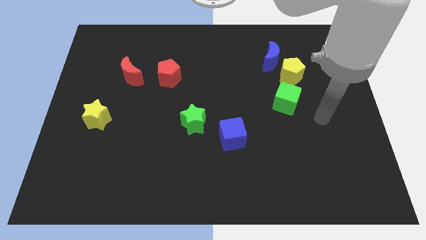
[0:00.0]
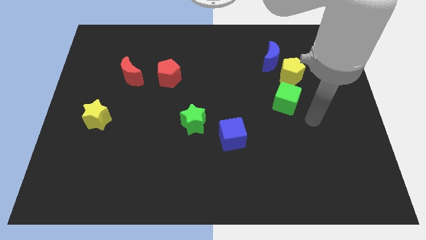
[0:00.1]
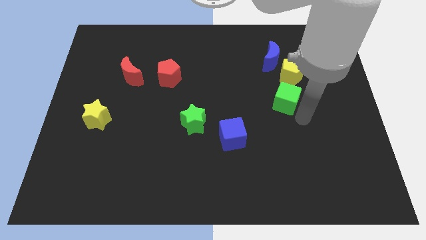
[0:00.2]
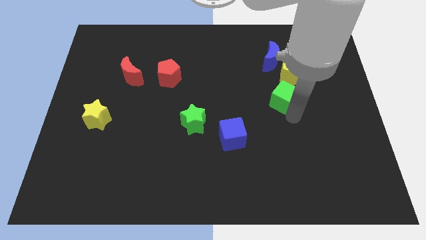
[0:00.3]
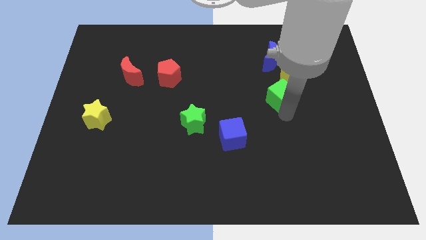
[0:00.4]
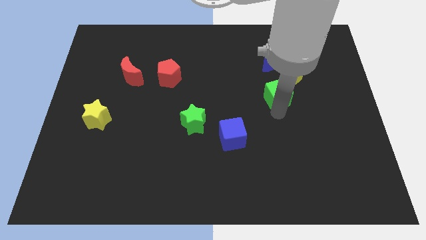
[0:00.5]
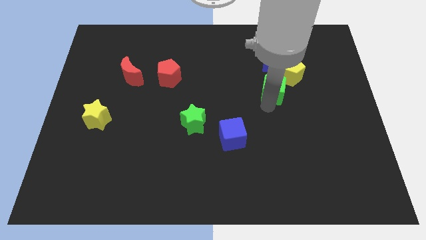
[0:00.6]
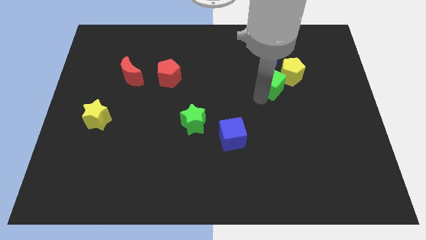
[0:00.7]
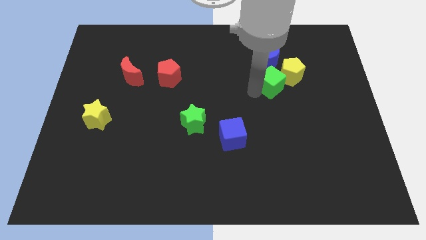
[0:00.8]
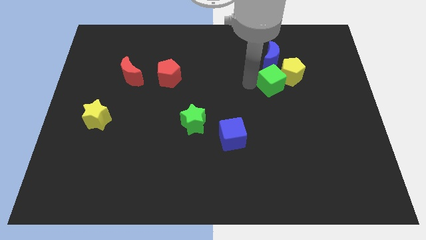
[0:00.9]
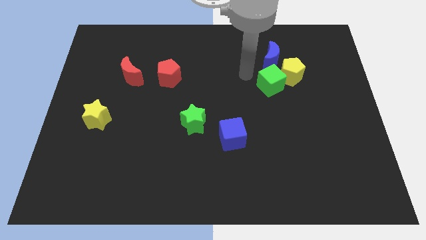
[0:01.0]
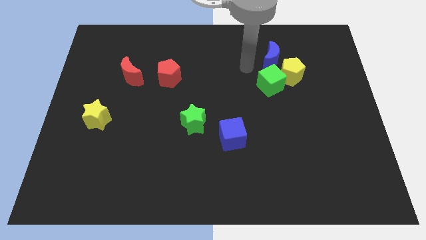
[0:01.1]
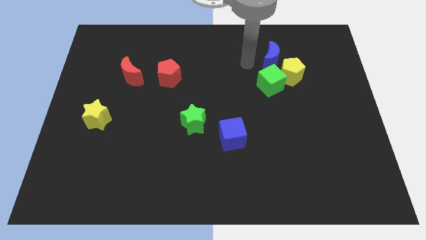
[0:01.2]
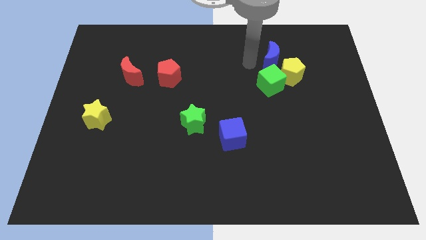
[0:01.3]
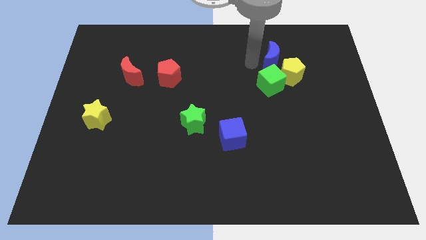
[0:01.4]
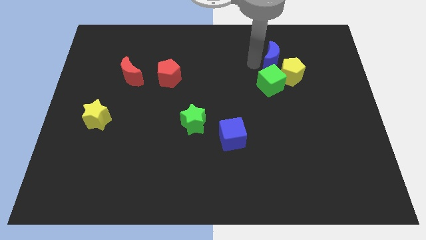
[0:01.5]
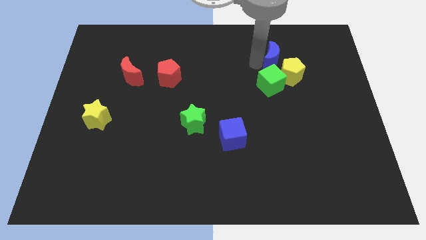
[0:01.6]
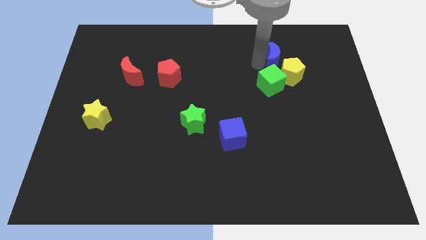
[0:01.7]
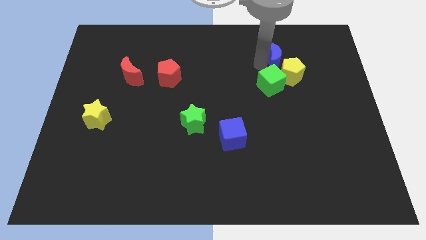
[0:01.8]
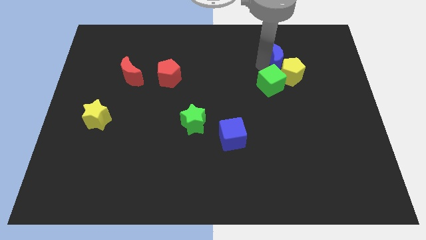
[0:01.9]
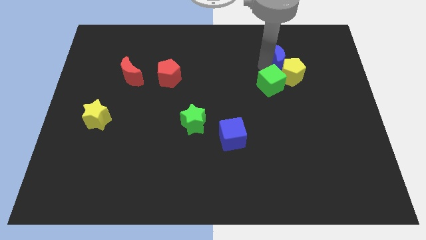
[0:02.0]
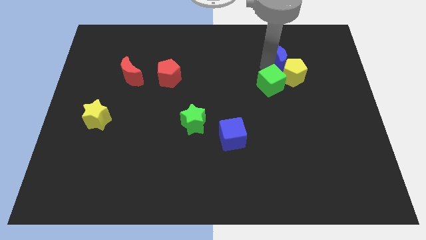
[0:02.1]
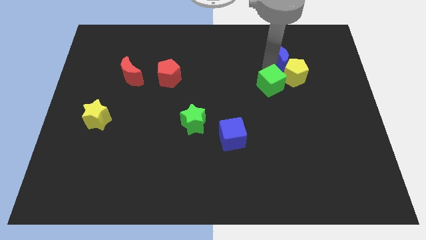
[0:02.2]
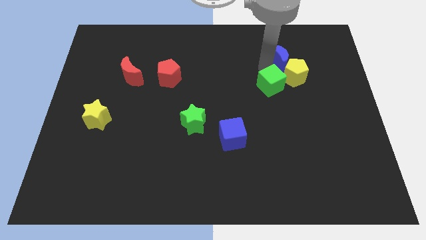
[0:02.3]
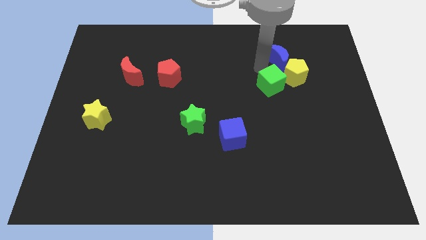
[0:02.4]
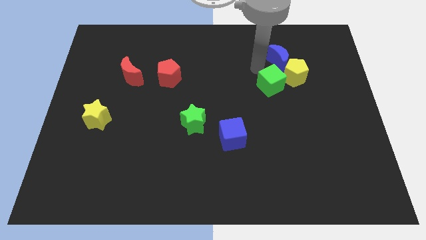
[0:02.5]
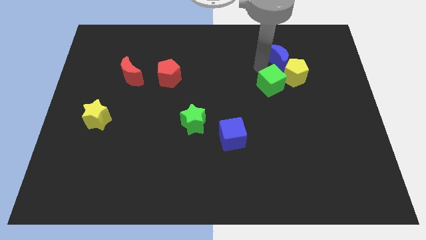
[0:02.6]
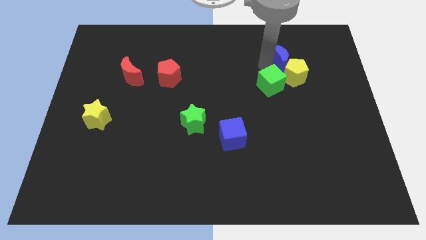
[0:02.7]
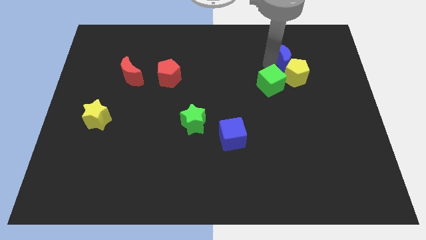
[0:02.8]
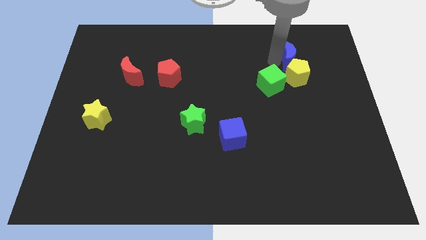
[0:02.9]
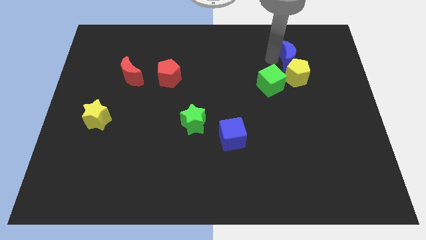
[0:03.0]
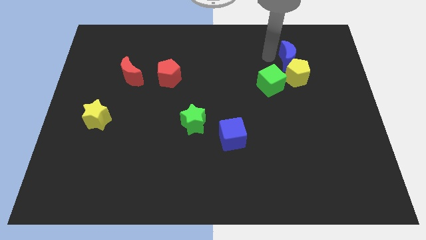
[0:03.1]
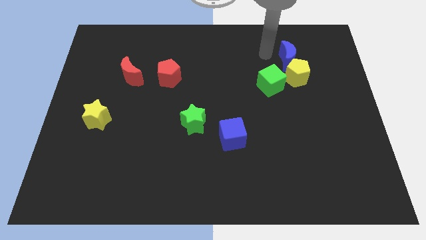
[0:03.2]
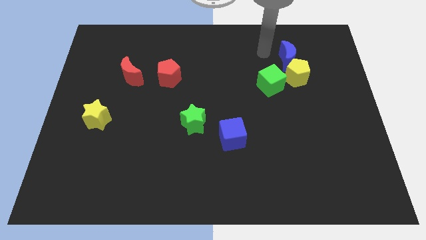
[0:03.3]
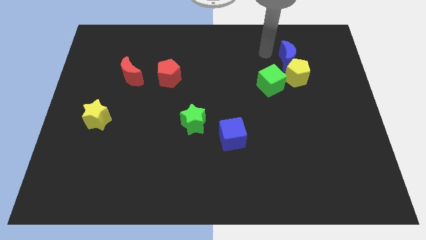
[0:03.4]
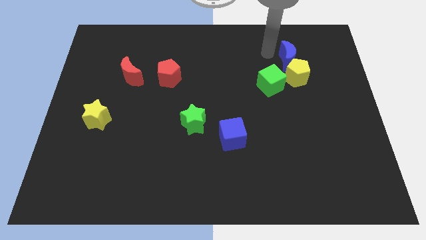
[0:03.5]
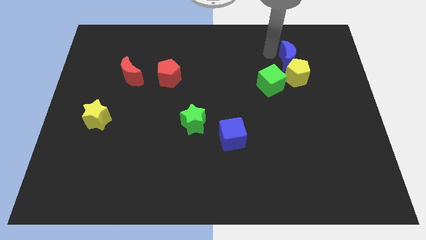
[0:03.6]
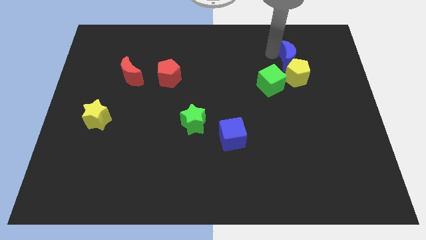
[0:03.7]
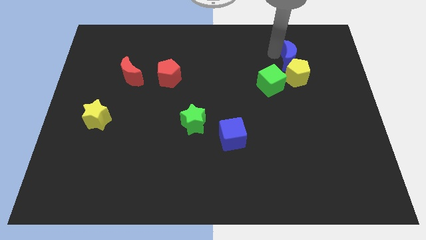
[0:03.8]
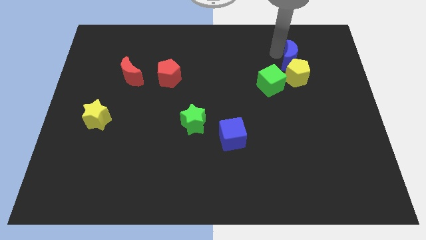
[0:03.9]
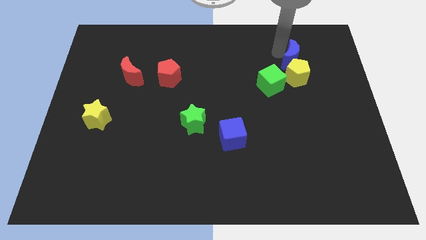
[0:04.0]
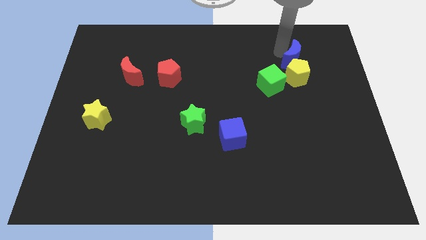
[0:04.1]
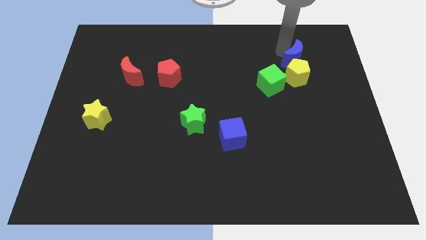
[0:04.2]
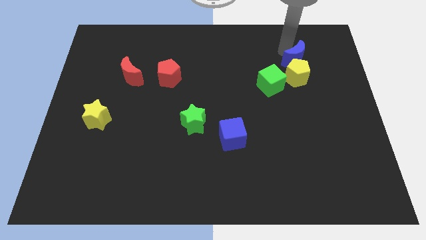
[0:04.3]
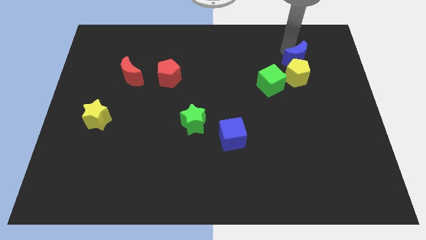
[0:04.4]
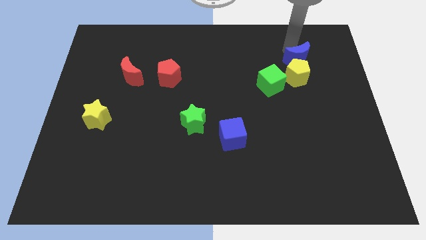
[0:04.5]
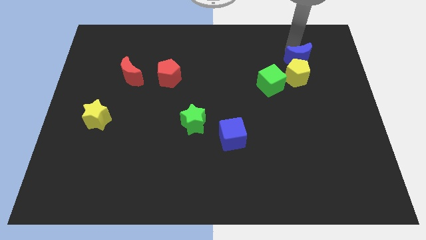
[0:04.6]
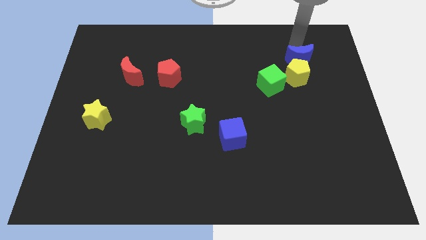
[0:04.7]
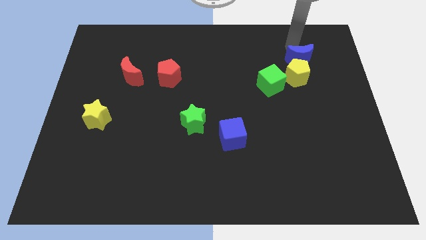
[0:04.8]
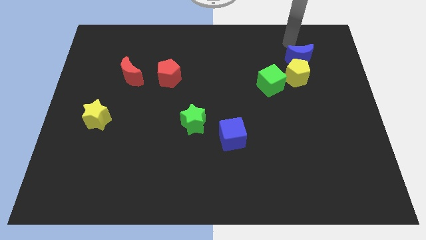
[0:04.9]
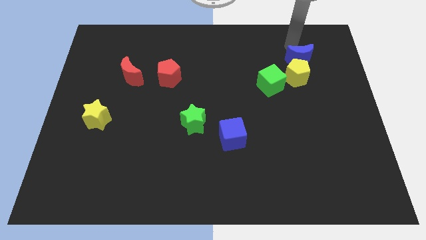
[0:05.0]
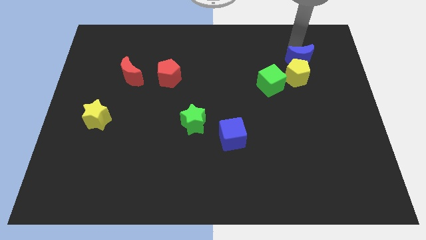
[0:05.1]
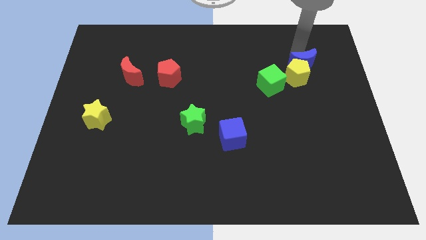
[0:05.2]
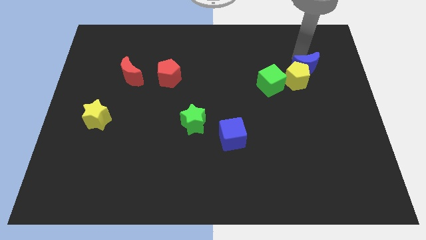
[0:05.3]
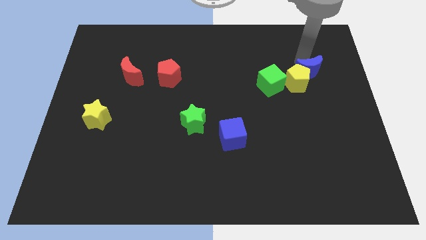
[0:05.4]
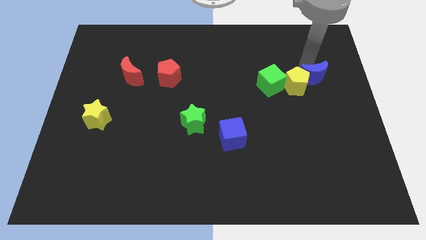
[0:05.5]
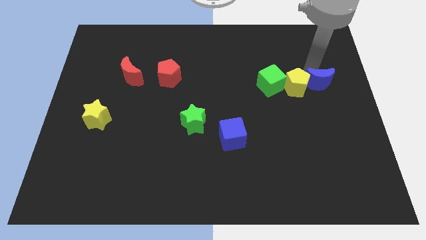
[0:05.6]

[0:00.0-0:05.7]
push the blue moon diagonally down and to the right of the yellow pentagon

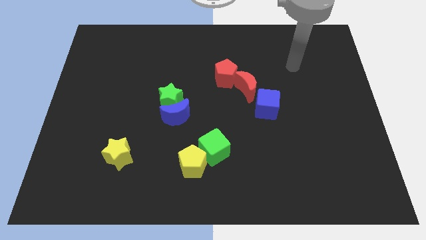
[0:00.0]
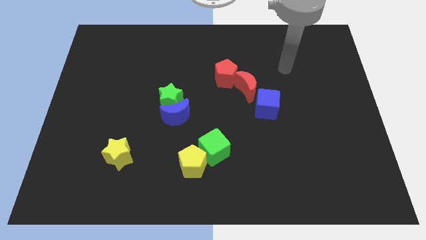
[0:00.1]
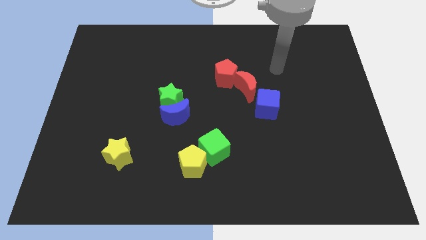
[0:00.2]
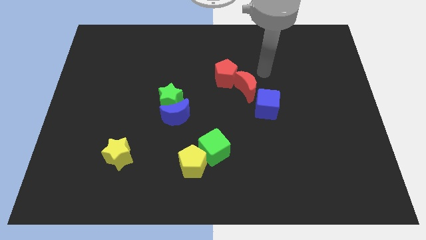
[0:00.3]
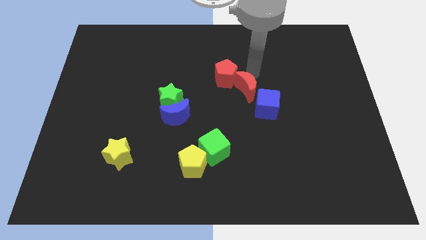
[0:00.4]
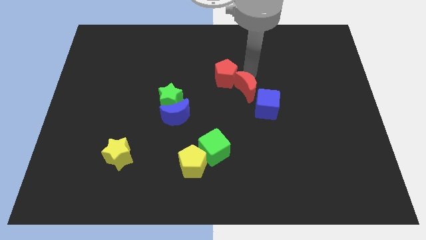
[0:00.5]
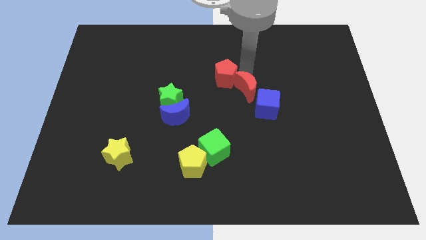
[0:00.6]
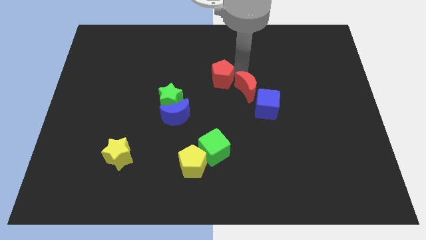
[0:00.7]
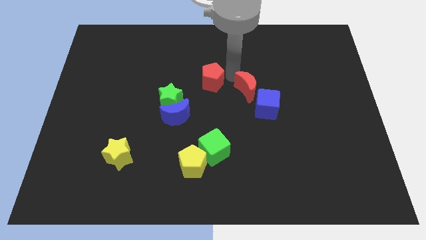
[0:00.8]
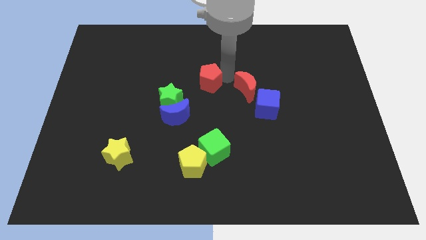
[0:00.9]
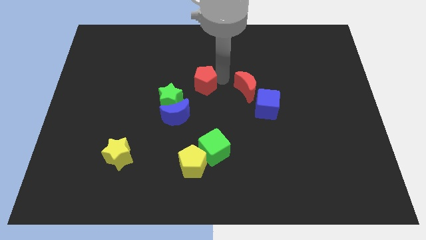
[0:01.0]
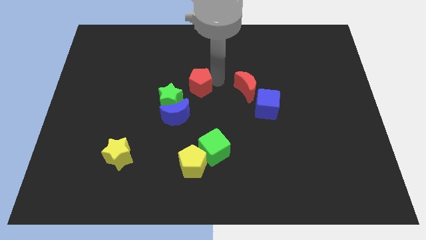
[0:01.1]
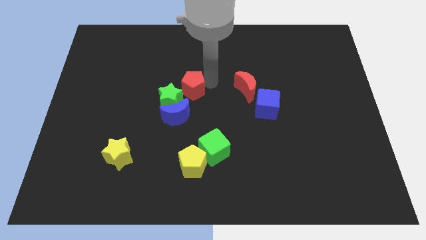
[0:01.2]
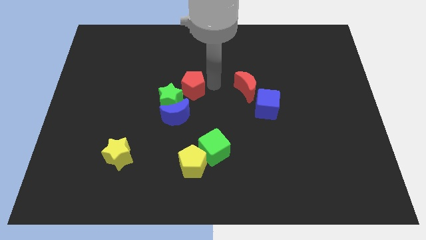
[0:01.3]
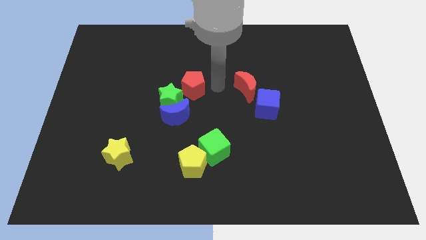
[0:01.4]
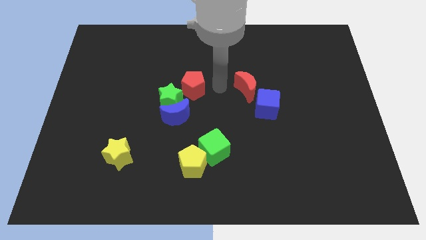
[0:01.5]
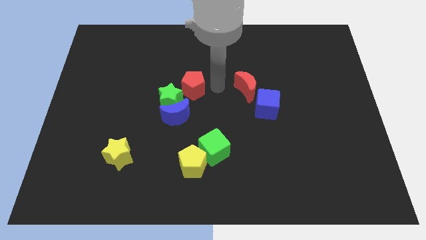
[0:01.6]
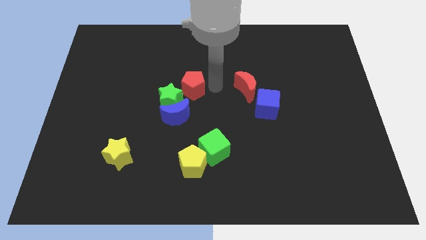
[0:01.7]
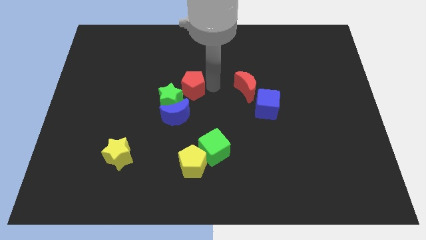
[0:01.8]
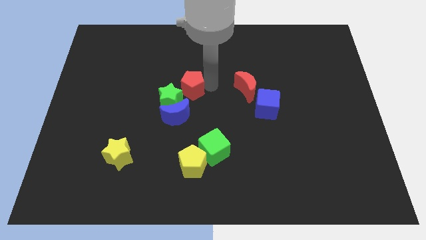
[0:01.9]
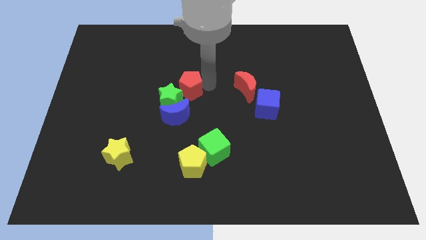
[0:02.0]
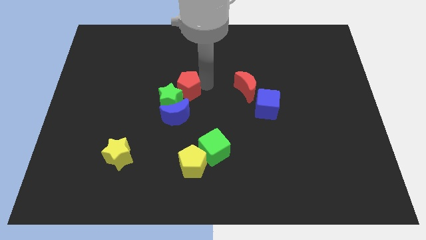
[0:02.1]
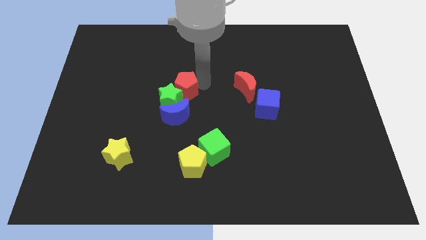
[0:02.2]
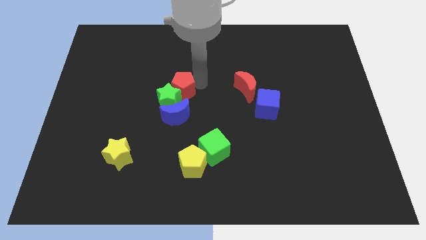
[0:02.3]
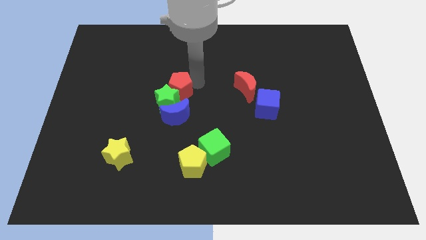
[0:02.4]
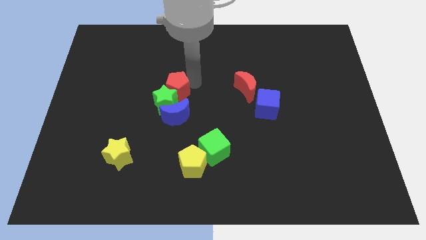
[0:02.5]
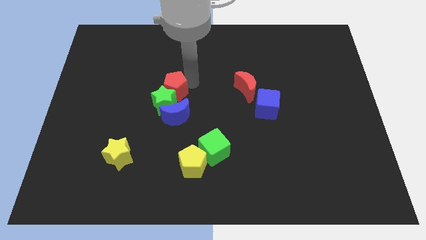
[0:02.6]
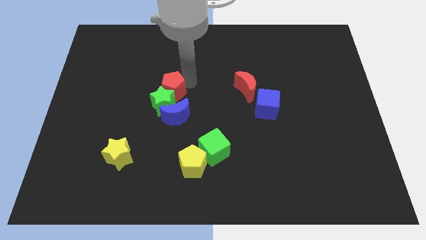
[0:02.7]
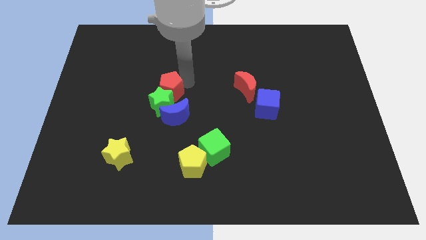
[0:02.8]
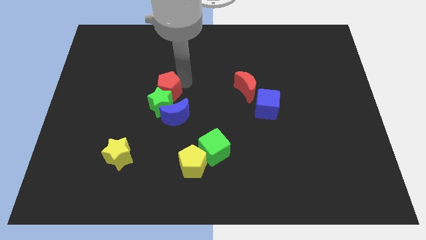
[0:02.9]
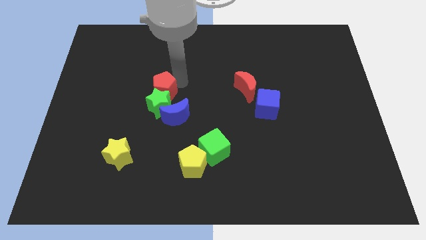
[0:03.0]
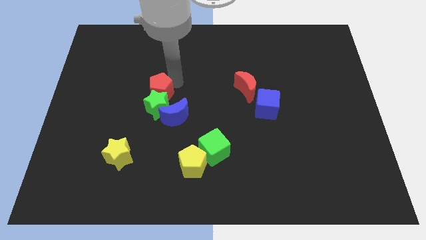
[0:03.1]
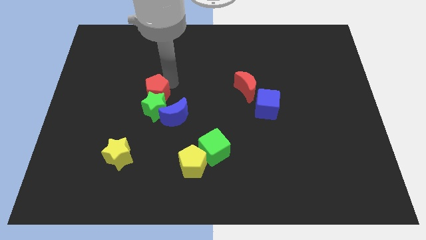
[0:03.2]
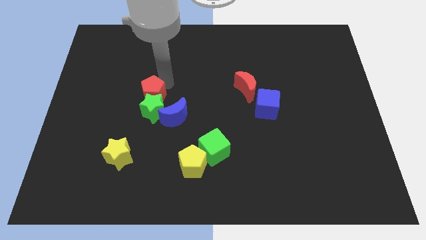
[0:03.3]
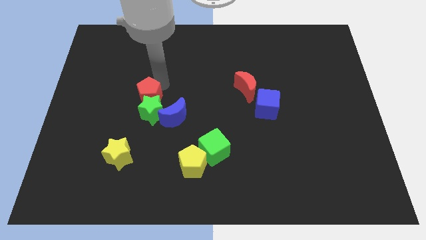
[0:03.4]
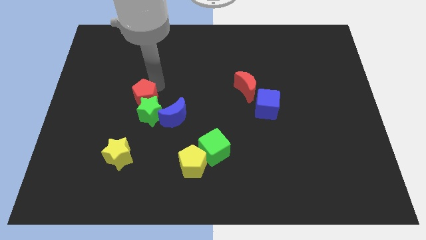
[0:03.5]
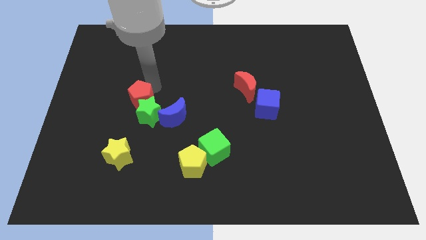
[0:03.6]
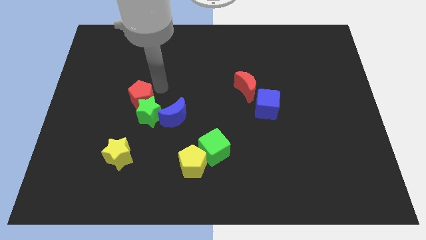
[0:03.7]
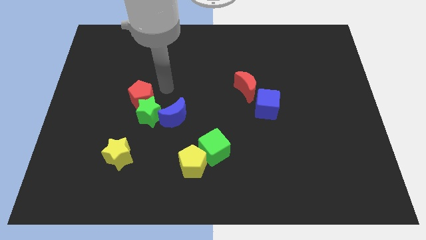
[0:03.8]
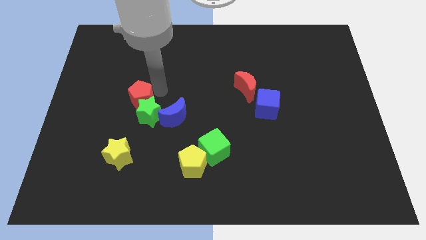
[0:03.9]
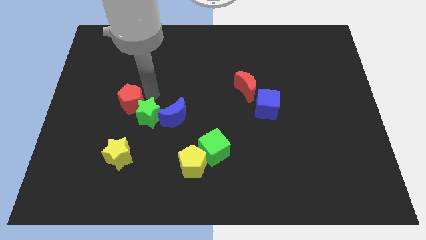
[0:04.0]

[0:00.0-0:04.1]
slide the red pentagon left of the green star
